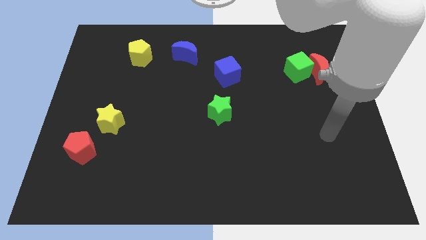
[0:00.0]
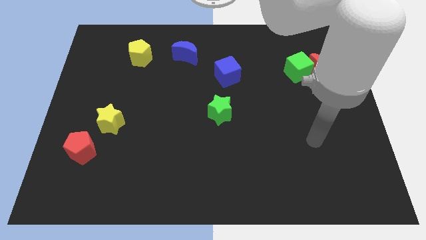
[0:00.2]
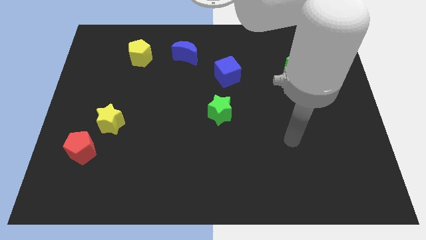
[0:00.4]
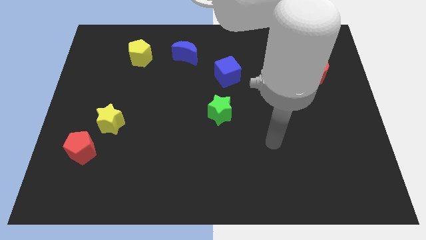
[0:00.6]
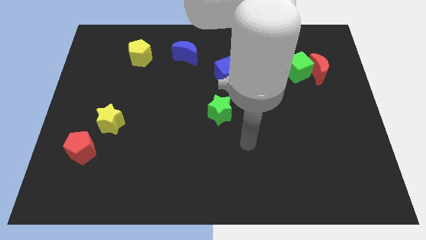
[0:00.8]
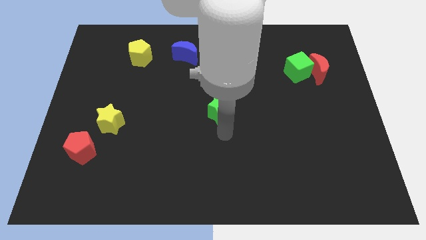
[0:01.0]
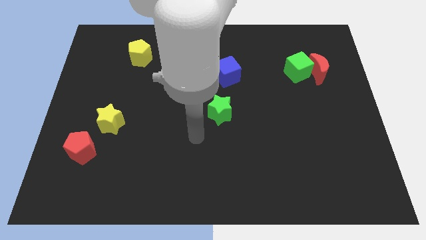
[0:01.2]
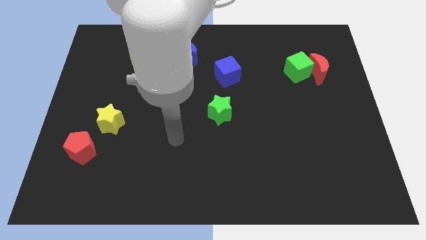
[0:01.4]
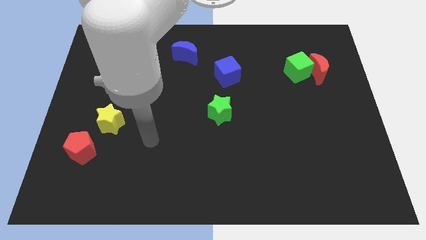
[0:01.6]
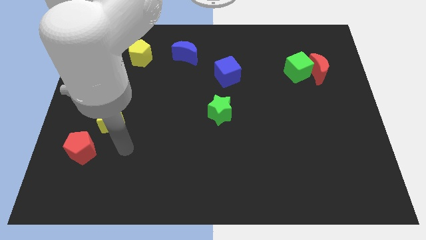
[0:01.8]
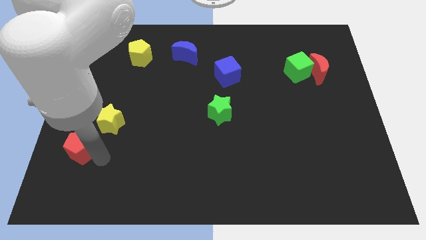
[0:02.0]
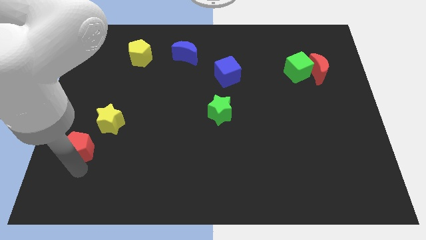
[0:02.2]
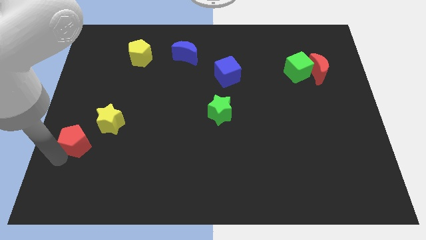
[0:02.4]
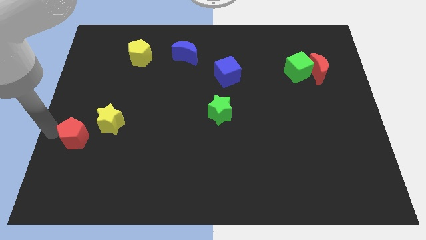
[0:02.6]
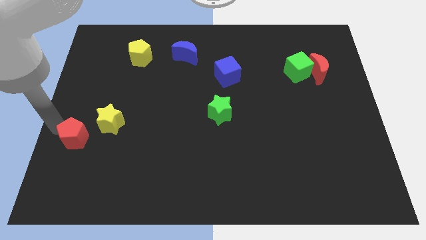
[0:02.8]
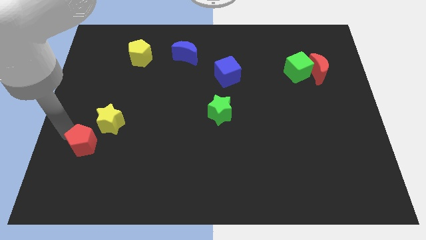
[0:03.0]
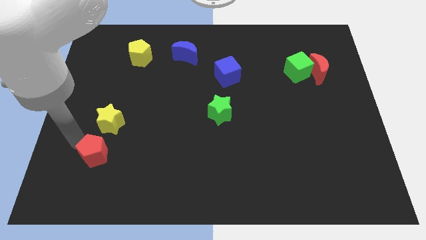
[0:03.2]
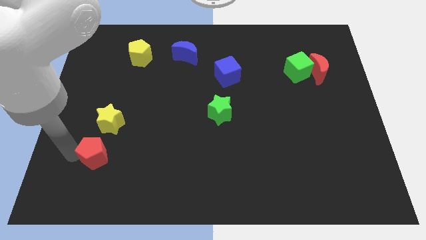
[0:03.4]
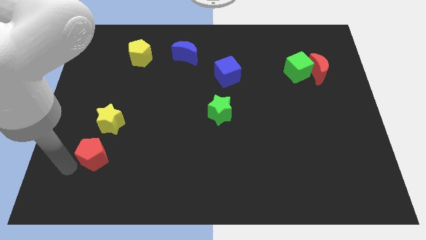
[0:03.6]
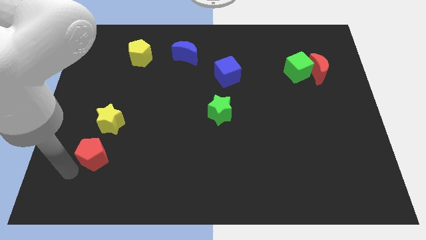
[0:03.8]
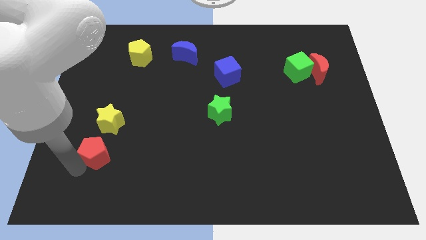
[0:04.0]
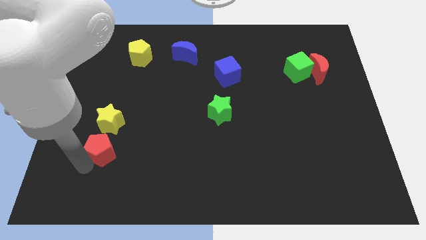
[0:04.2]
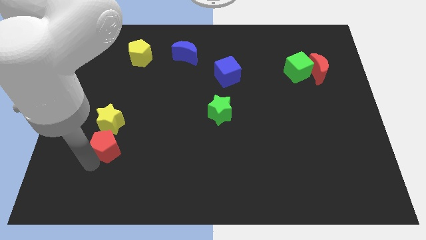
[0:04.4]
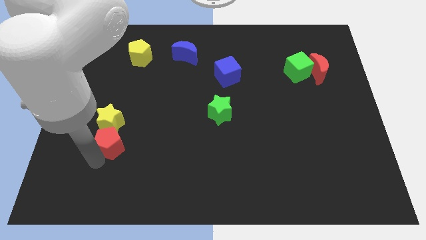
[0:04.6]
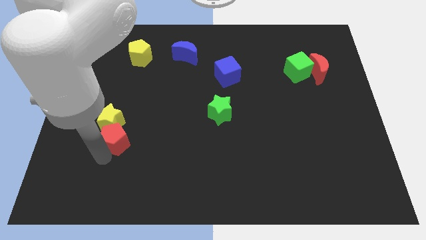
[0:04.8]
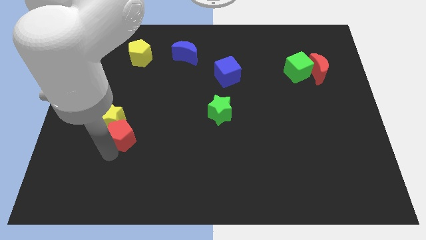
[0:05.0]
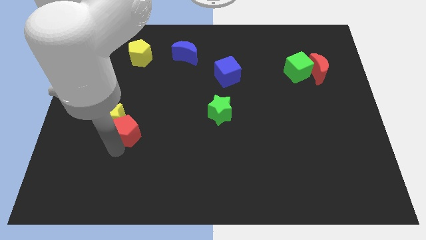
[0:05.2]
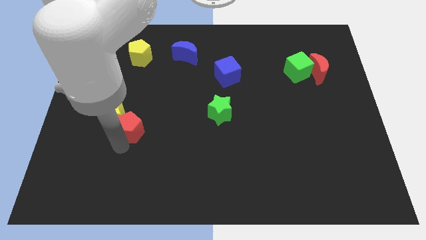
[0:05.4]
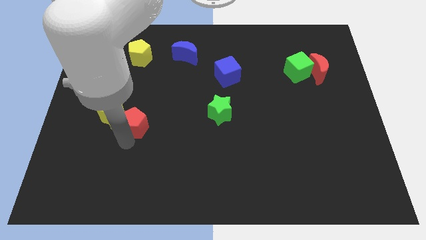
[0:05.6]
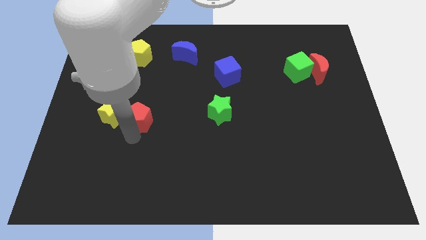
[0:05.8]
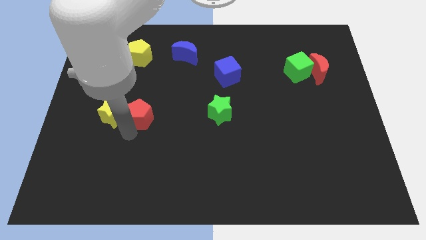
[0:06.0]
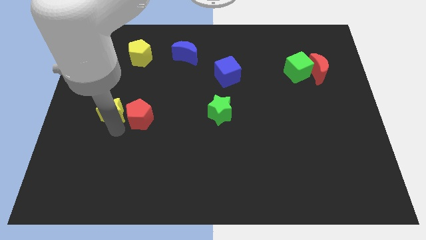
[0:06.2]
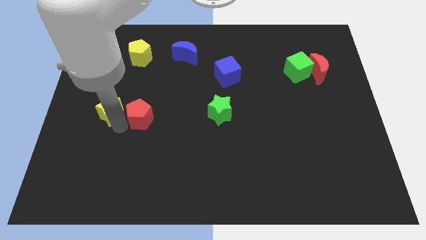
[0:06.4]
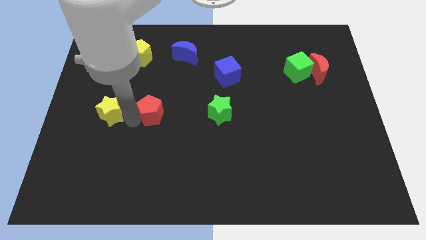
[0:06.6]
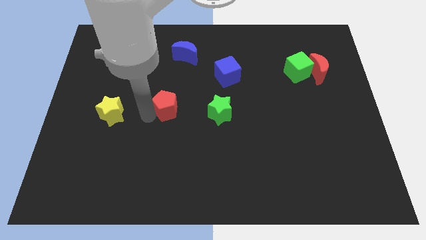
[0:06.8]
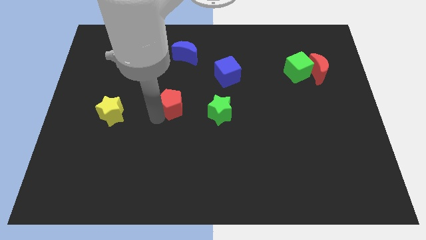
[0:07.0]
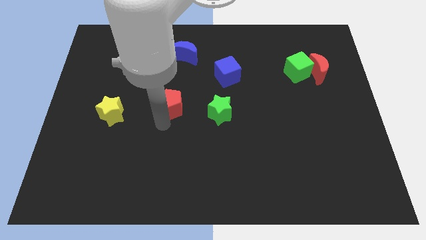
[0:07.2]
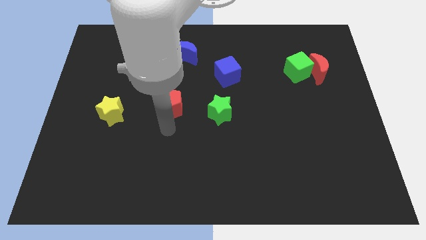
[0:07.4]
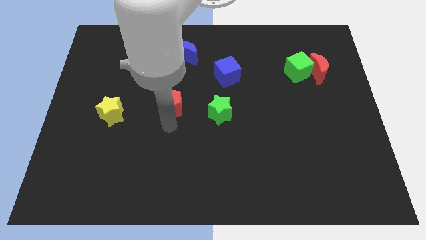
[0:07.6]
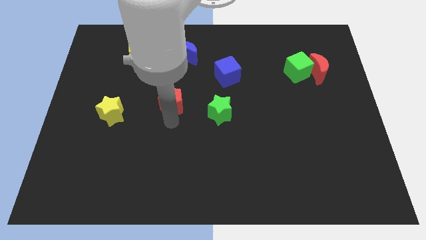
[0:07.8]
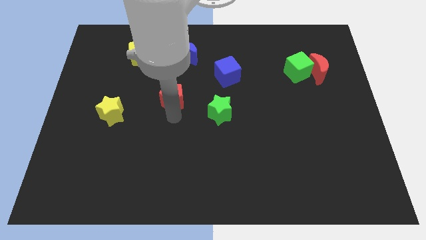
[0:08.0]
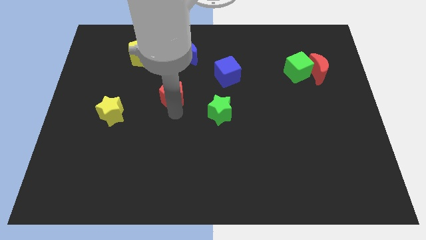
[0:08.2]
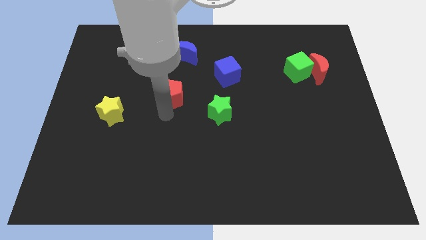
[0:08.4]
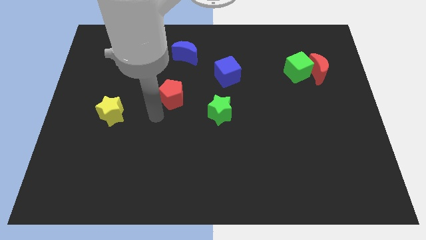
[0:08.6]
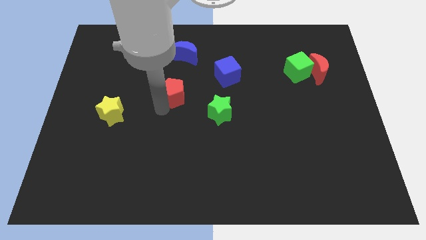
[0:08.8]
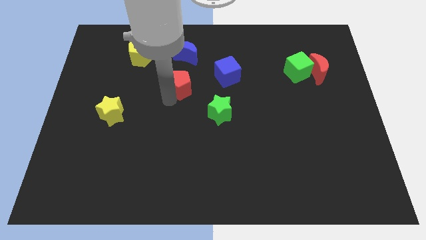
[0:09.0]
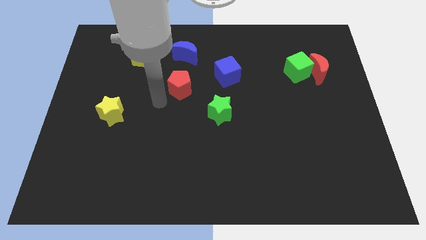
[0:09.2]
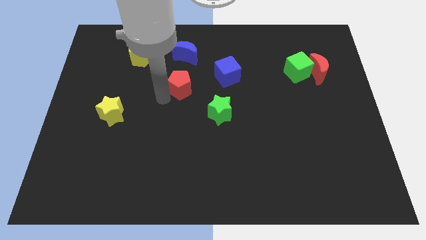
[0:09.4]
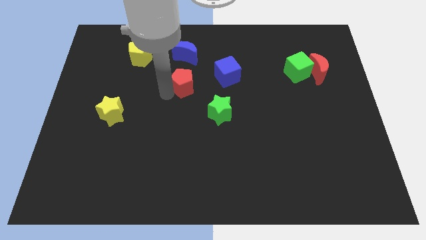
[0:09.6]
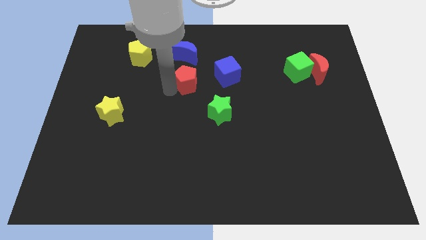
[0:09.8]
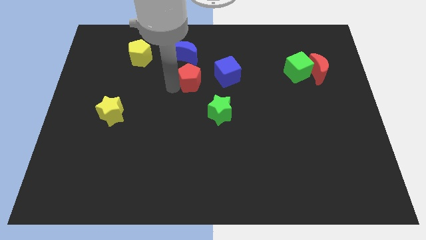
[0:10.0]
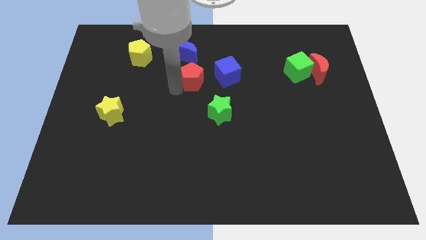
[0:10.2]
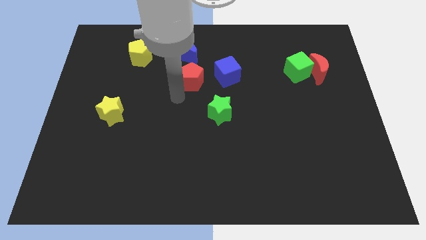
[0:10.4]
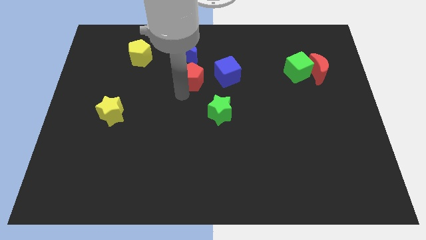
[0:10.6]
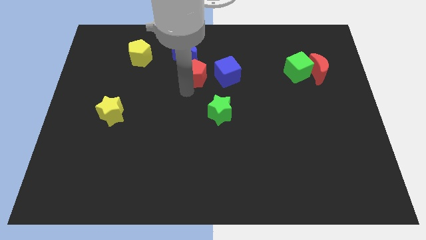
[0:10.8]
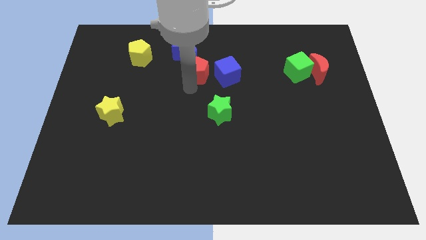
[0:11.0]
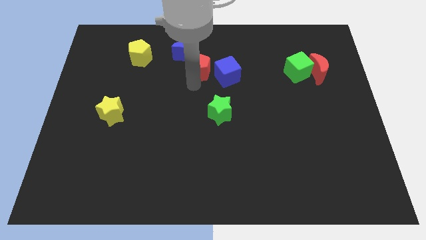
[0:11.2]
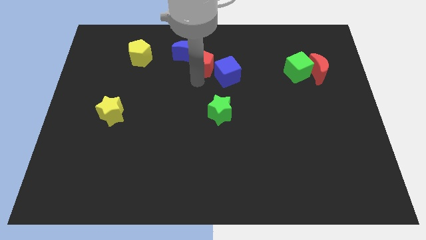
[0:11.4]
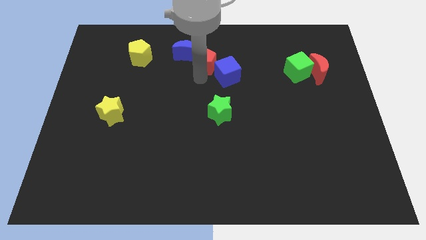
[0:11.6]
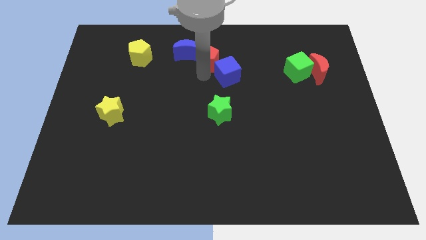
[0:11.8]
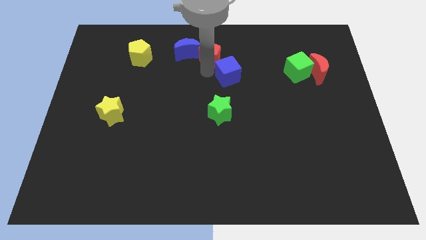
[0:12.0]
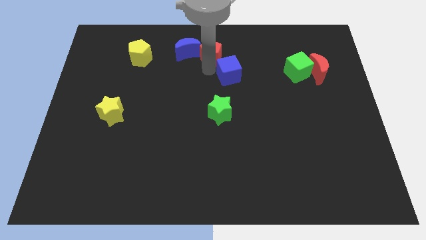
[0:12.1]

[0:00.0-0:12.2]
slide the red pentagon to the top

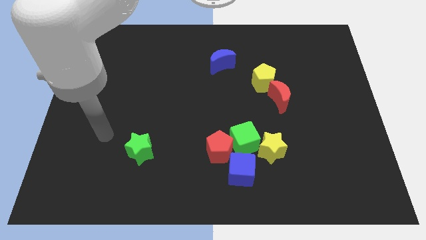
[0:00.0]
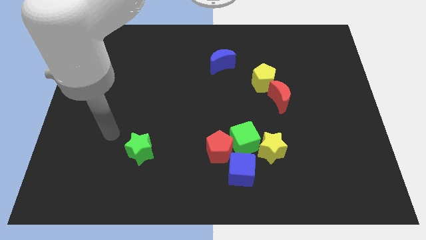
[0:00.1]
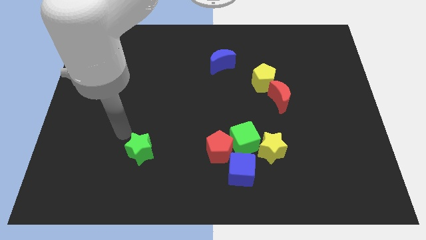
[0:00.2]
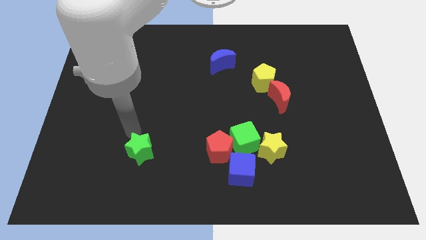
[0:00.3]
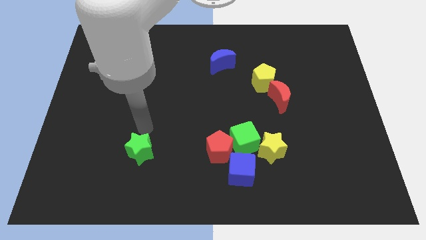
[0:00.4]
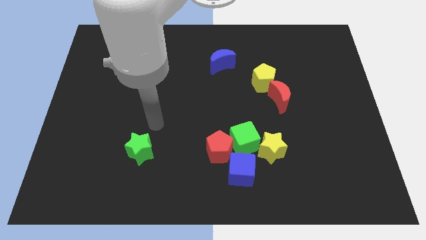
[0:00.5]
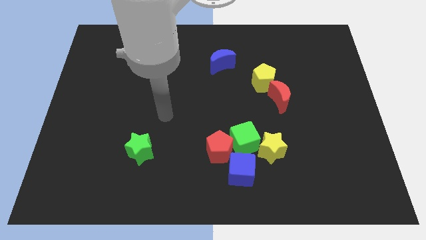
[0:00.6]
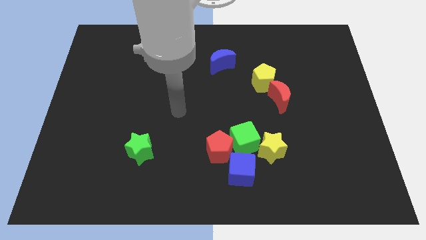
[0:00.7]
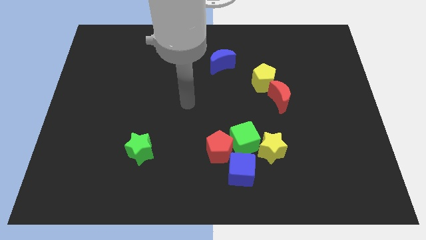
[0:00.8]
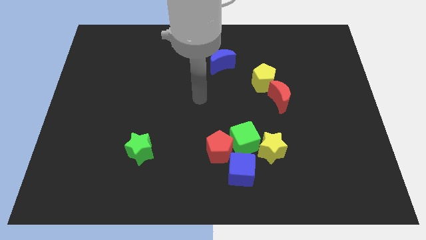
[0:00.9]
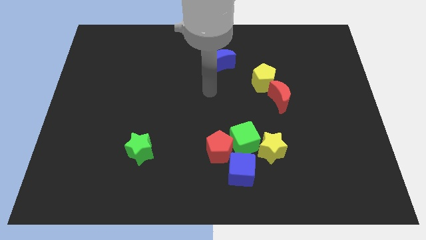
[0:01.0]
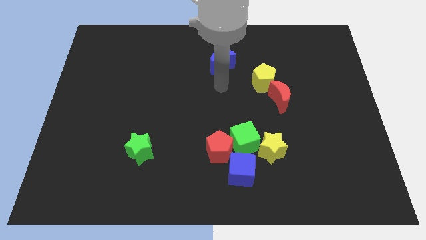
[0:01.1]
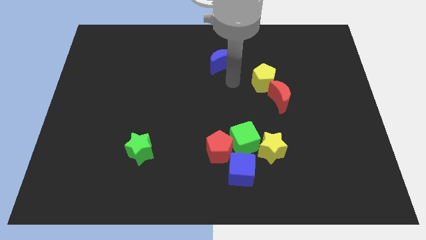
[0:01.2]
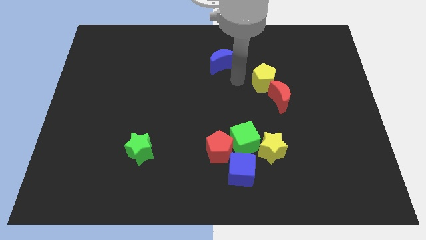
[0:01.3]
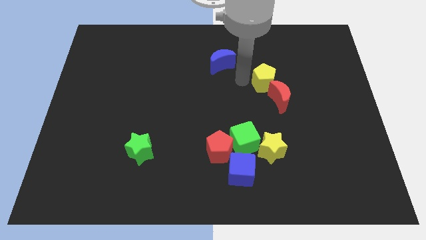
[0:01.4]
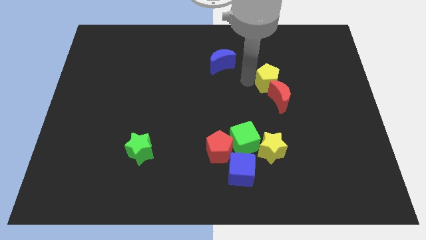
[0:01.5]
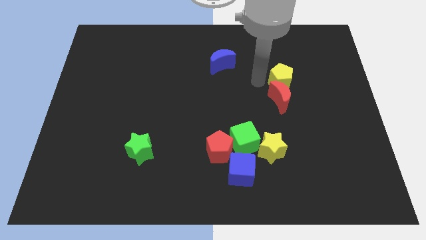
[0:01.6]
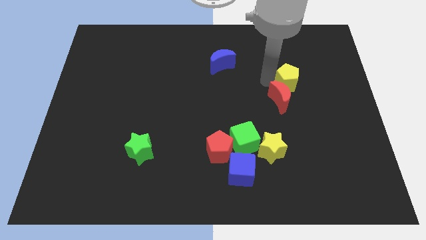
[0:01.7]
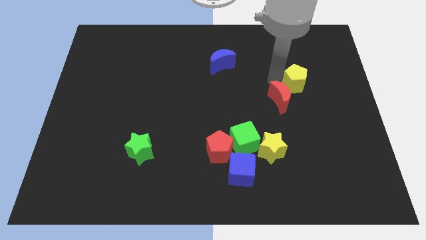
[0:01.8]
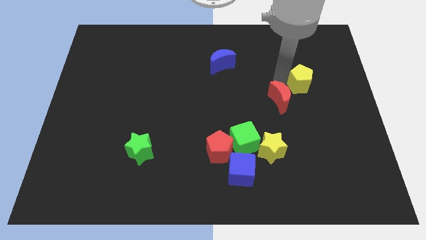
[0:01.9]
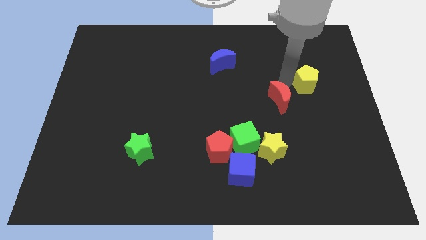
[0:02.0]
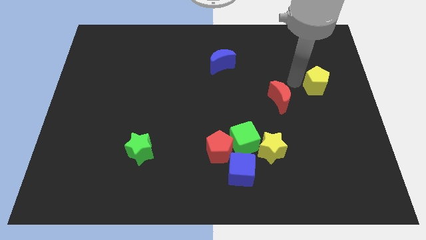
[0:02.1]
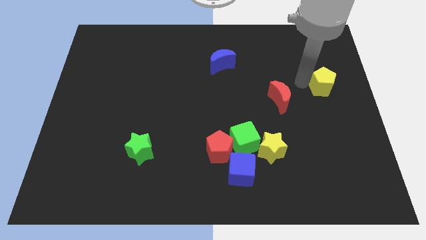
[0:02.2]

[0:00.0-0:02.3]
slide the yellow pentagon to the right side

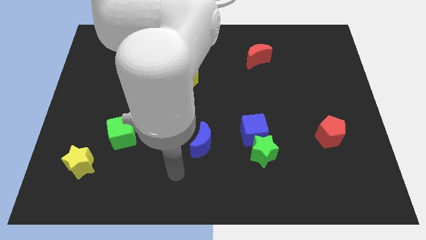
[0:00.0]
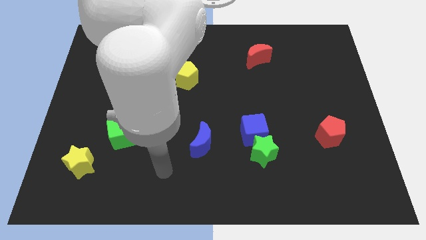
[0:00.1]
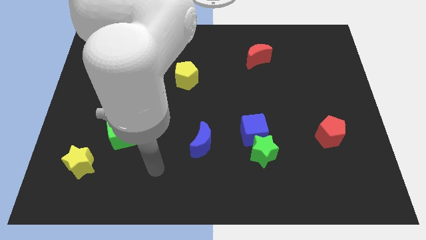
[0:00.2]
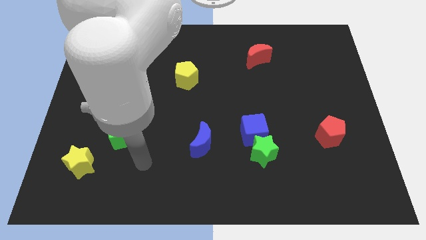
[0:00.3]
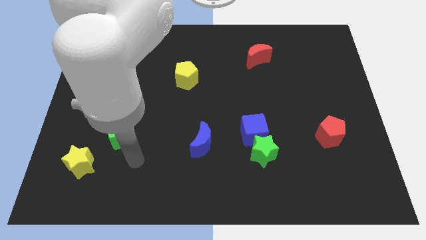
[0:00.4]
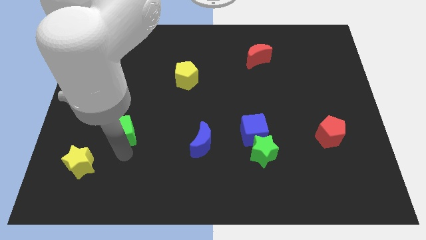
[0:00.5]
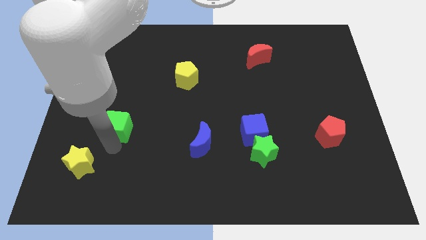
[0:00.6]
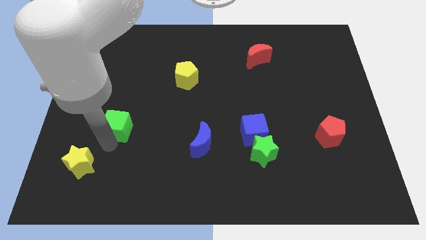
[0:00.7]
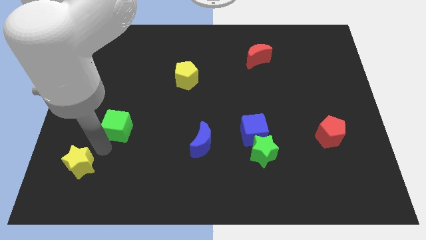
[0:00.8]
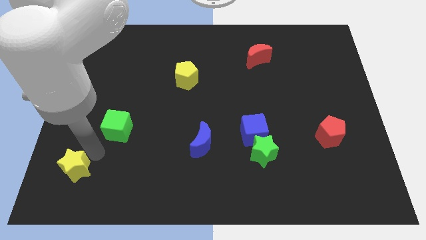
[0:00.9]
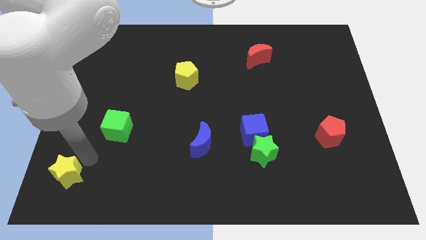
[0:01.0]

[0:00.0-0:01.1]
move the yellow star to the bottom left of the board
